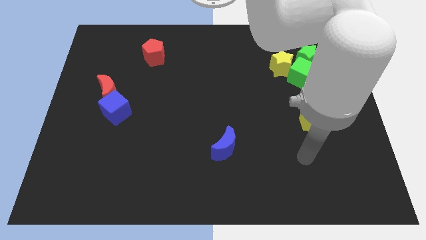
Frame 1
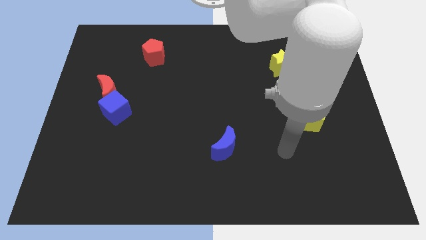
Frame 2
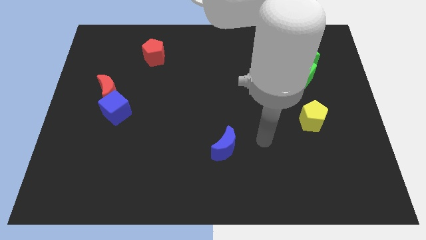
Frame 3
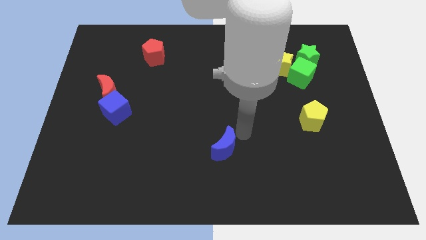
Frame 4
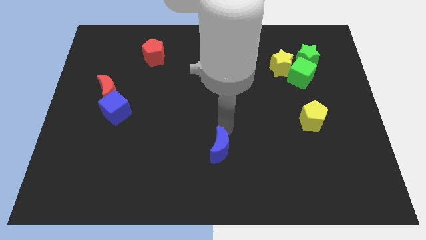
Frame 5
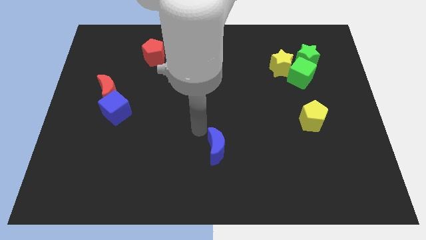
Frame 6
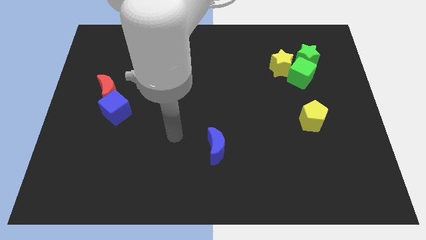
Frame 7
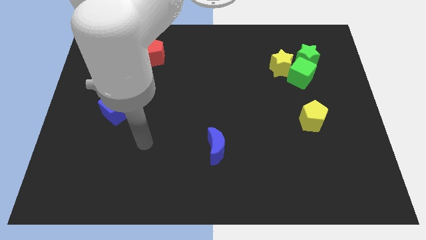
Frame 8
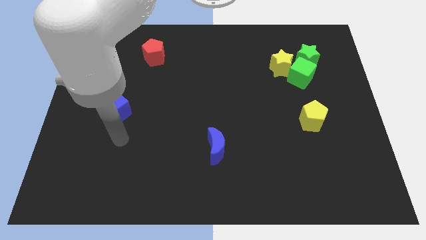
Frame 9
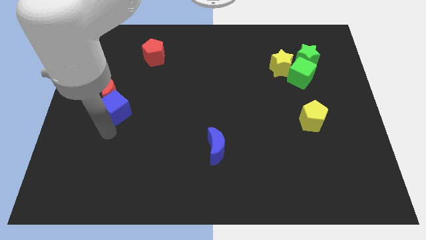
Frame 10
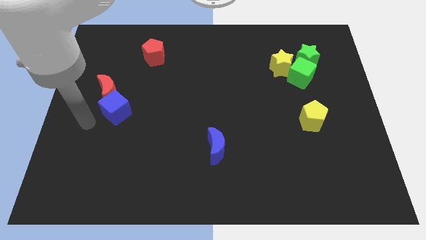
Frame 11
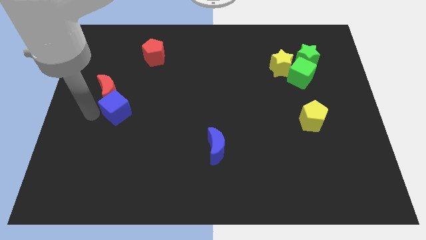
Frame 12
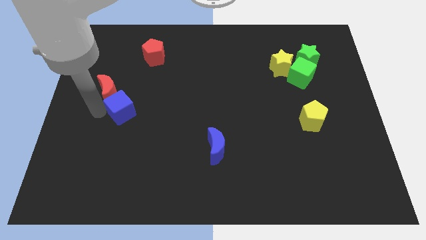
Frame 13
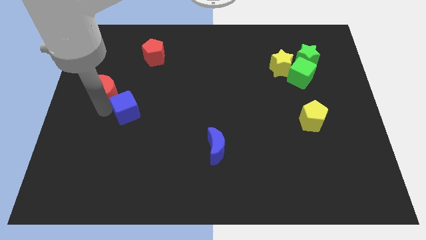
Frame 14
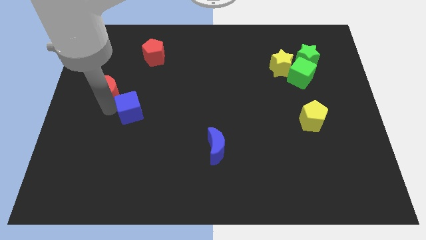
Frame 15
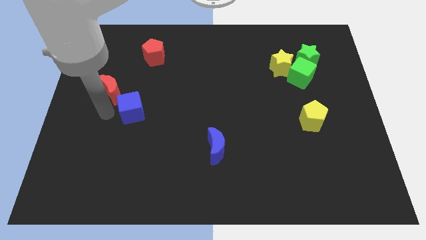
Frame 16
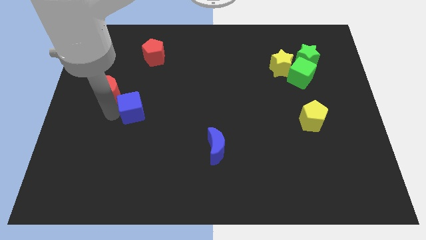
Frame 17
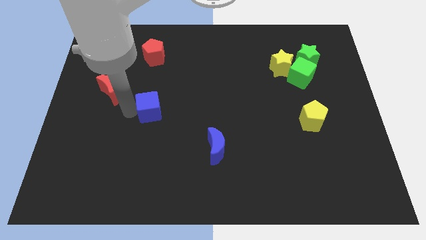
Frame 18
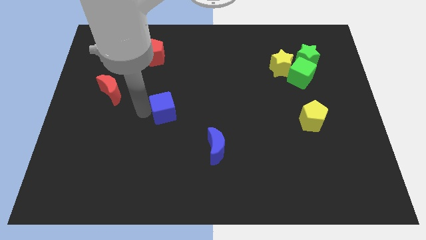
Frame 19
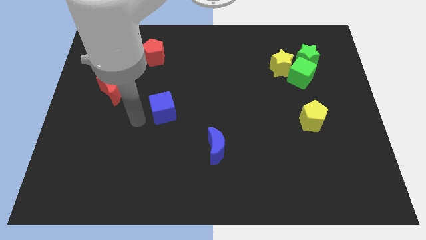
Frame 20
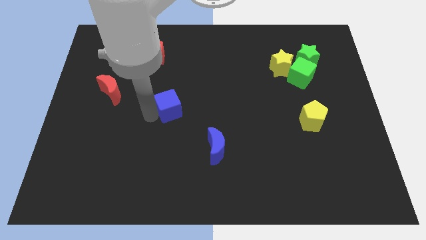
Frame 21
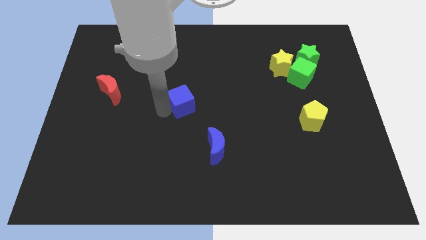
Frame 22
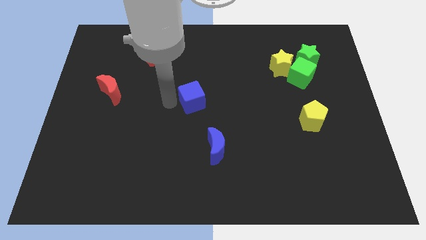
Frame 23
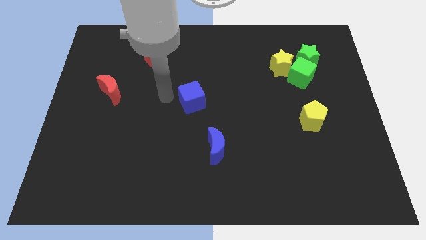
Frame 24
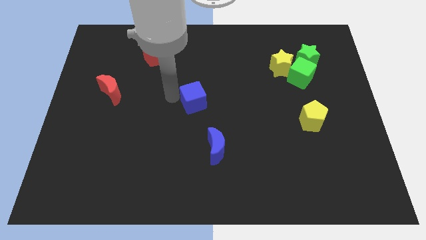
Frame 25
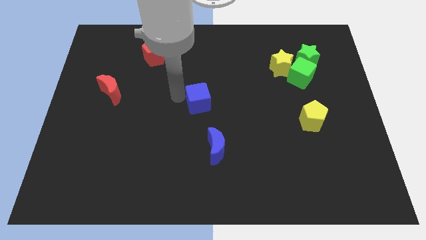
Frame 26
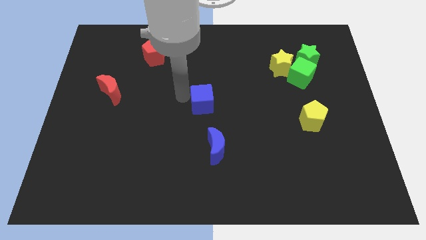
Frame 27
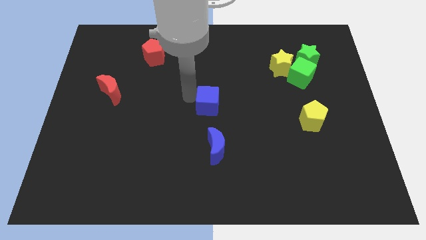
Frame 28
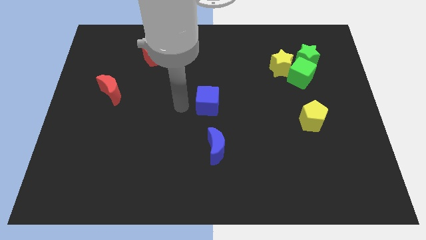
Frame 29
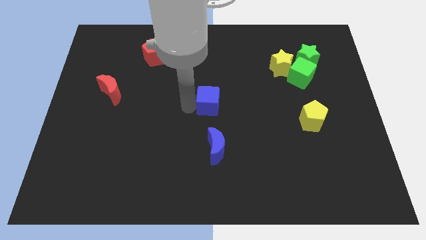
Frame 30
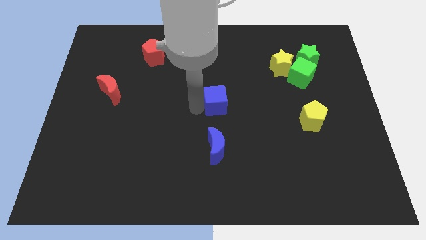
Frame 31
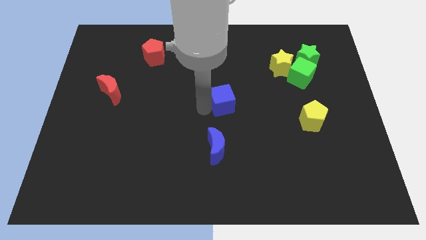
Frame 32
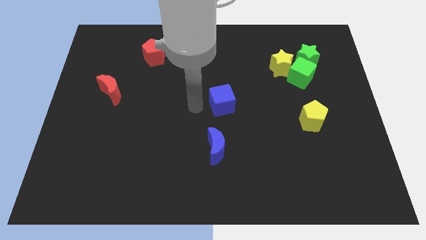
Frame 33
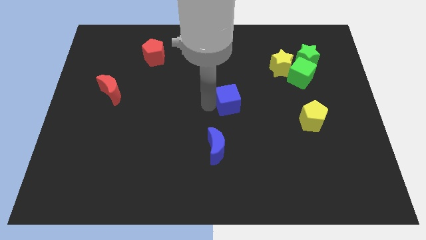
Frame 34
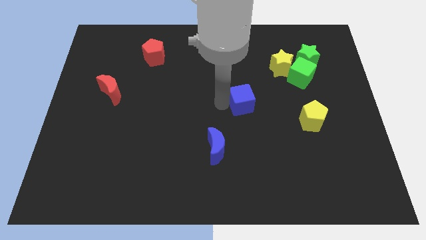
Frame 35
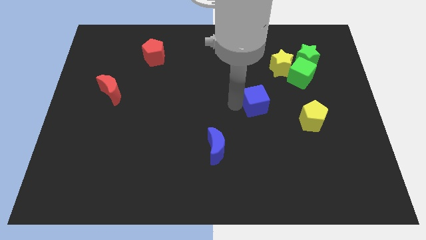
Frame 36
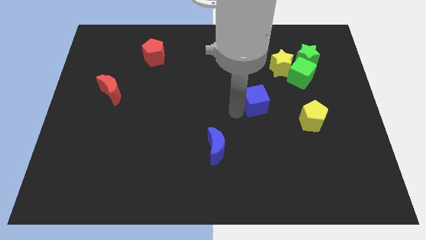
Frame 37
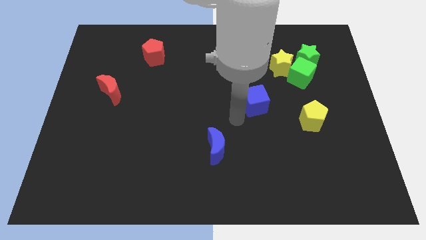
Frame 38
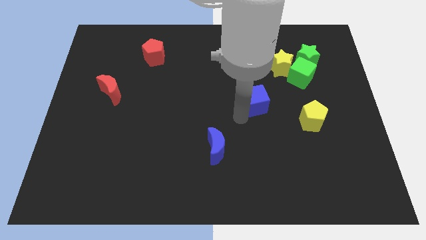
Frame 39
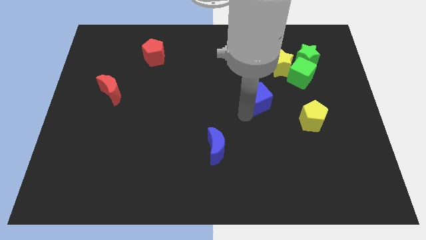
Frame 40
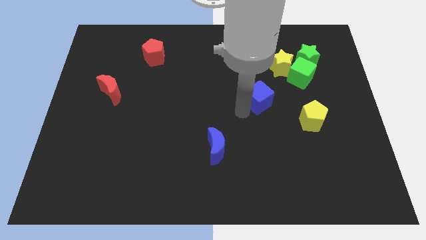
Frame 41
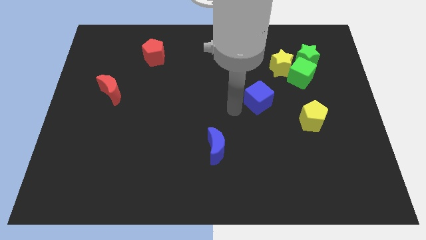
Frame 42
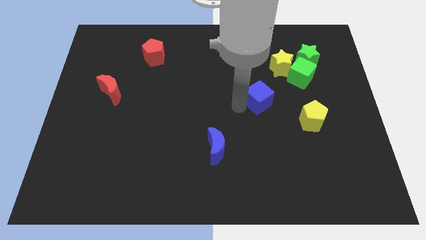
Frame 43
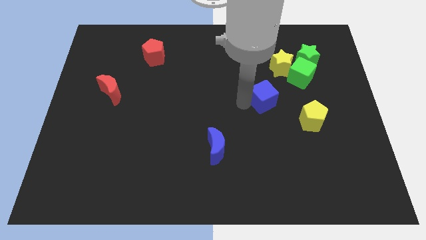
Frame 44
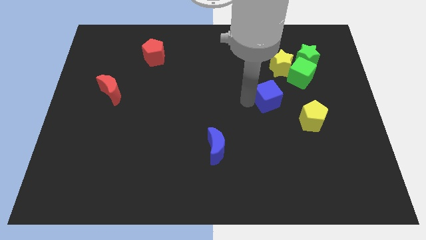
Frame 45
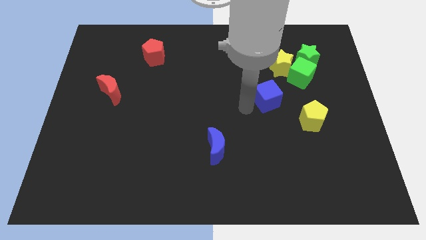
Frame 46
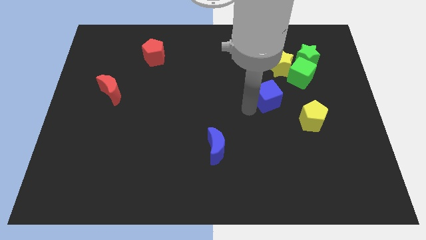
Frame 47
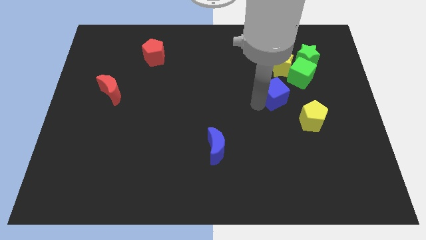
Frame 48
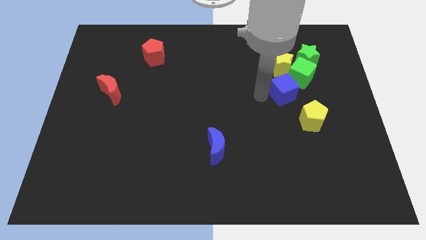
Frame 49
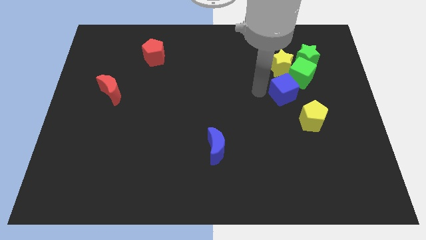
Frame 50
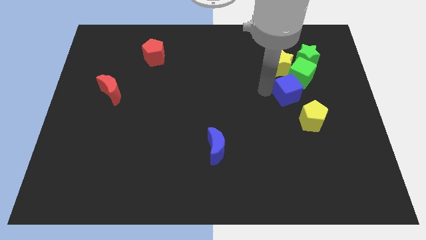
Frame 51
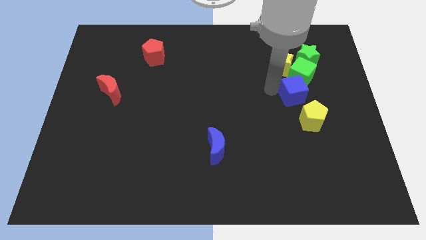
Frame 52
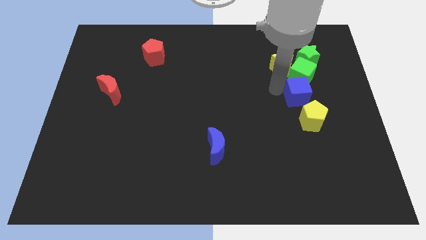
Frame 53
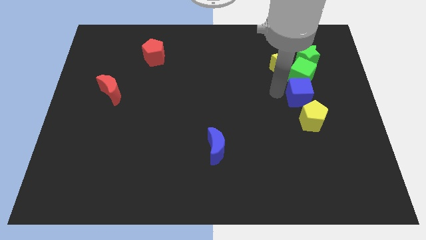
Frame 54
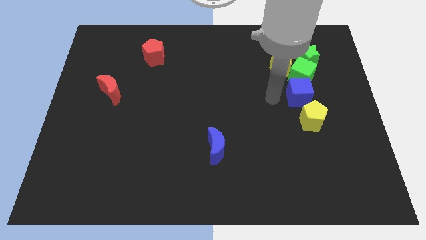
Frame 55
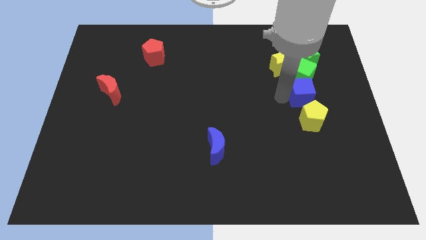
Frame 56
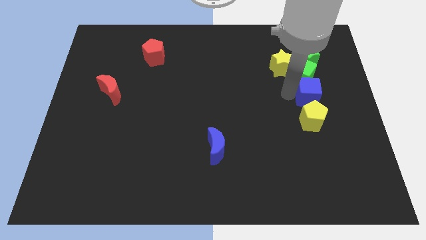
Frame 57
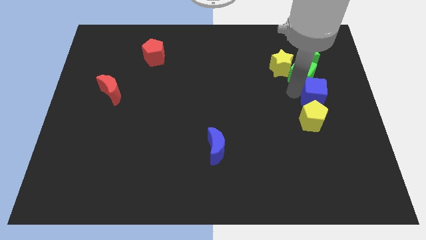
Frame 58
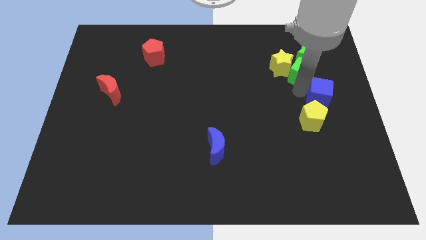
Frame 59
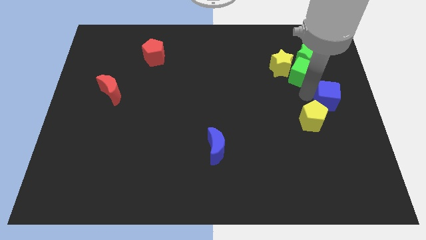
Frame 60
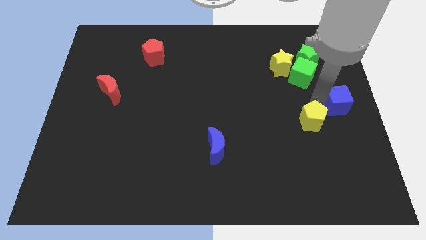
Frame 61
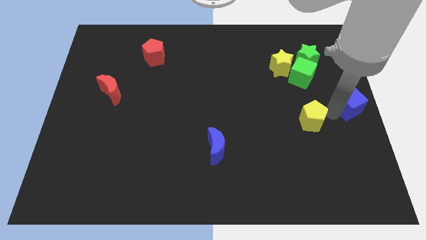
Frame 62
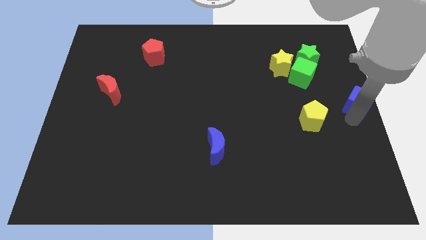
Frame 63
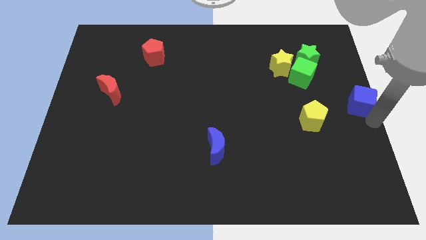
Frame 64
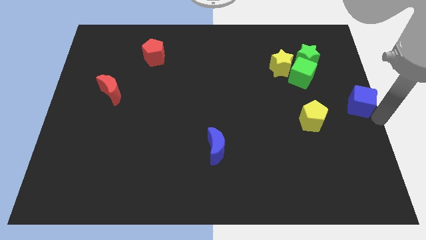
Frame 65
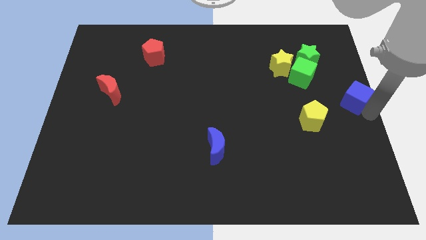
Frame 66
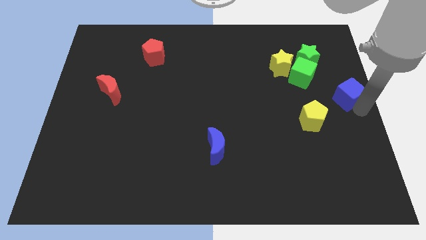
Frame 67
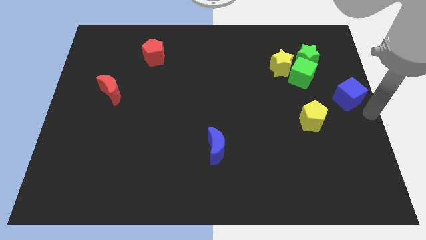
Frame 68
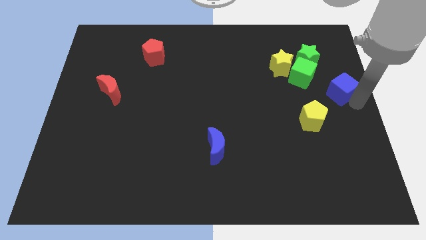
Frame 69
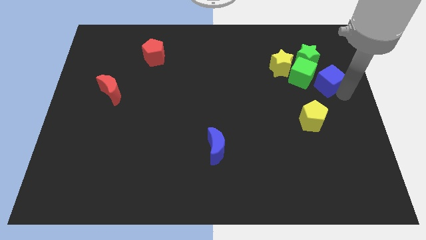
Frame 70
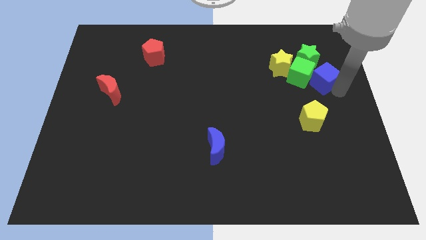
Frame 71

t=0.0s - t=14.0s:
slide the blue cube right of the yellow star
